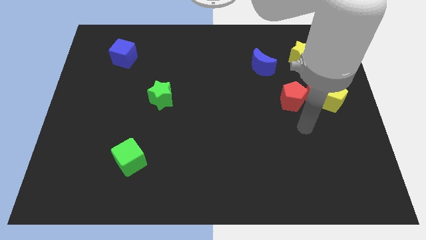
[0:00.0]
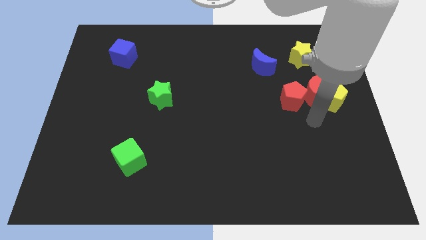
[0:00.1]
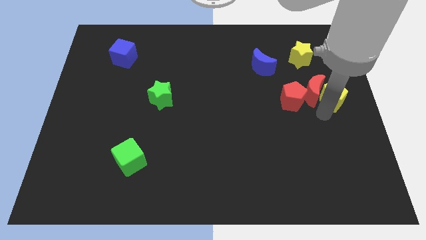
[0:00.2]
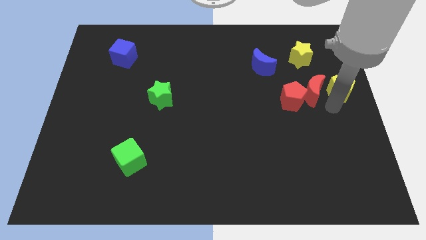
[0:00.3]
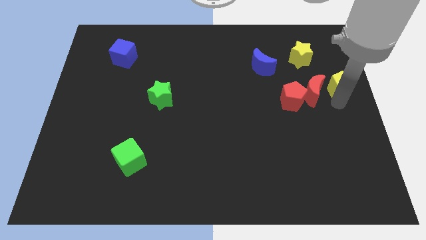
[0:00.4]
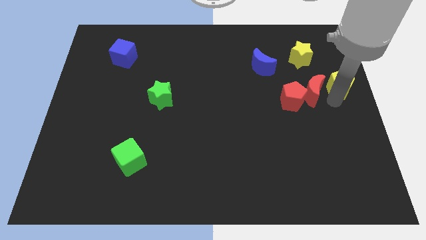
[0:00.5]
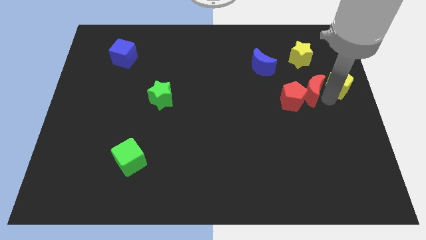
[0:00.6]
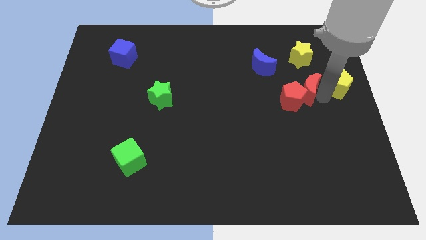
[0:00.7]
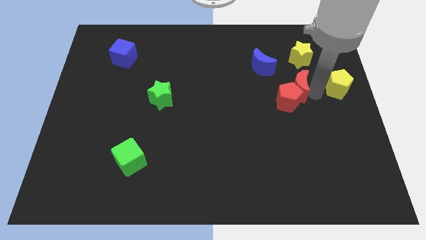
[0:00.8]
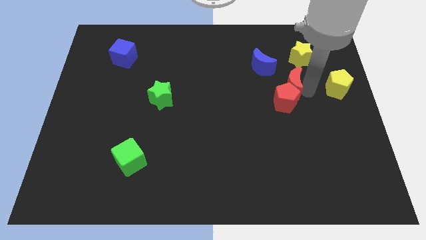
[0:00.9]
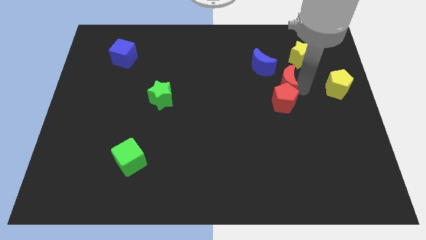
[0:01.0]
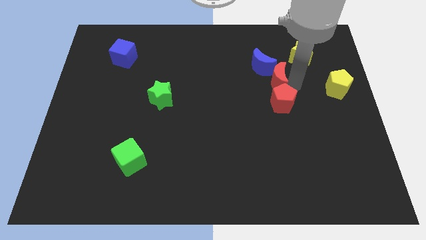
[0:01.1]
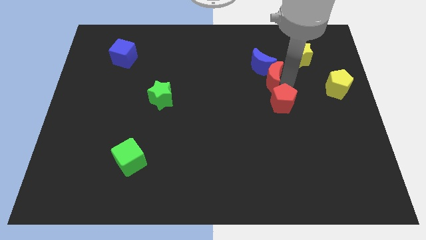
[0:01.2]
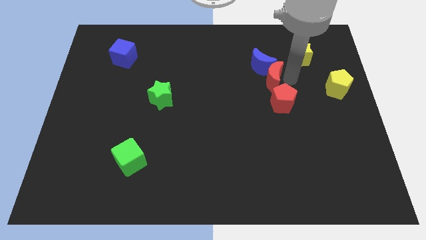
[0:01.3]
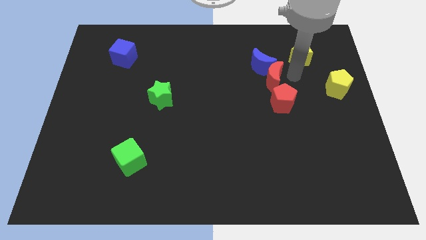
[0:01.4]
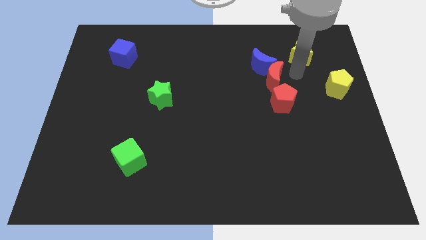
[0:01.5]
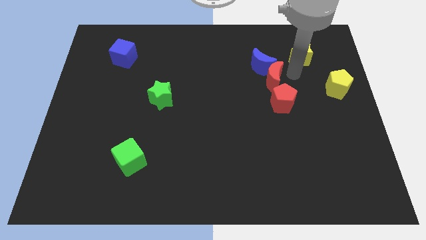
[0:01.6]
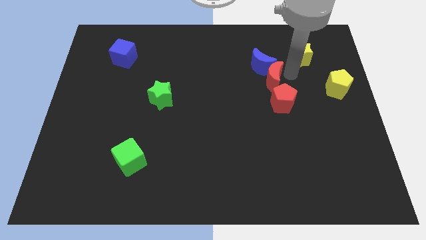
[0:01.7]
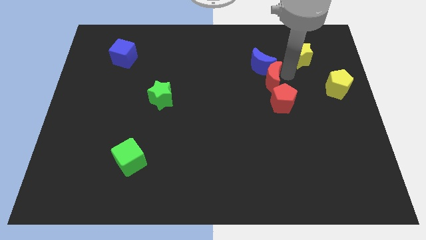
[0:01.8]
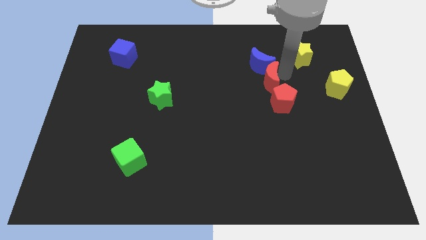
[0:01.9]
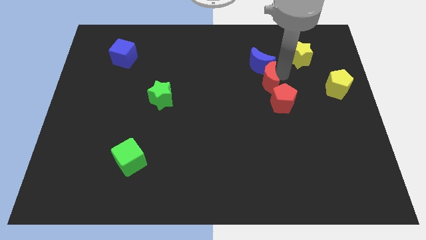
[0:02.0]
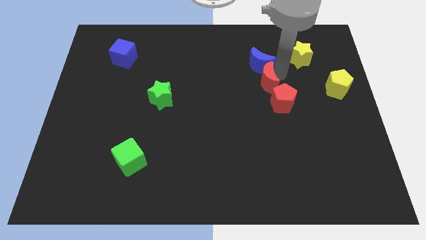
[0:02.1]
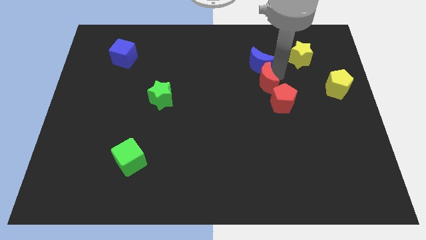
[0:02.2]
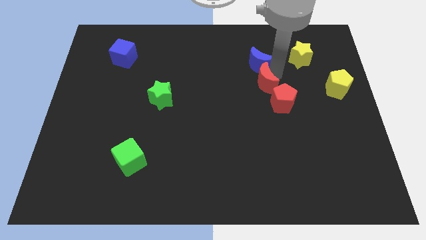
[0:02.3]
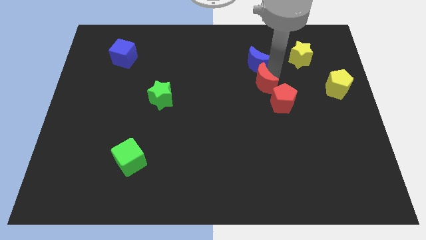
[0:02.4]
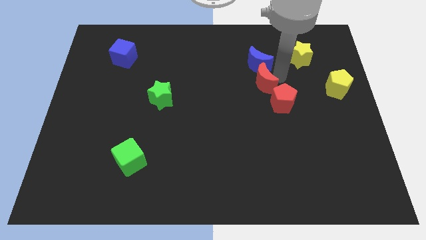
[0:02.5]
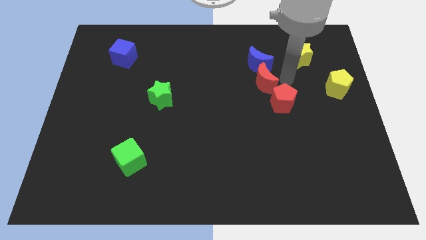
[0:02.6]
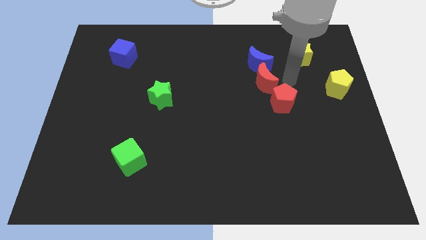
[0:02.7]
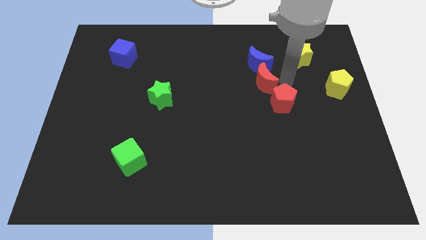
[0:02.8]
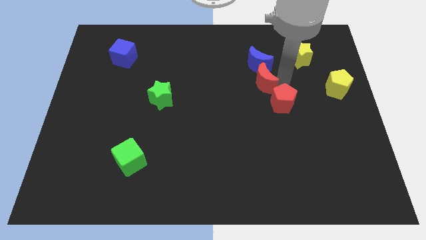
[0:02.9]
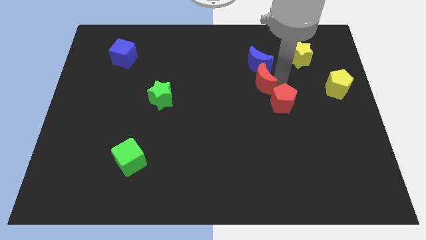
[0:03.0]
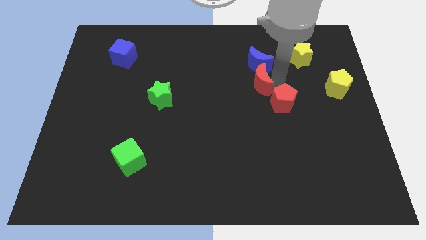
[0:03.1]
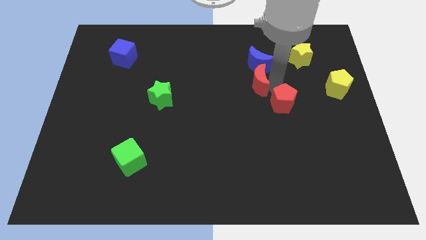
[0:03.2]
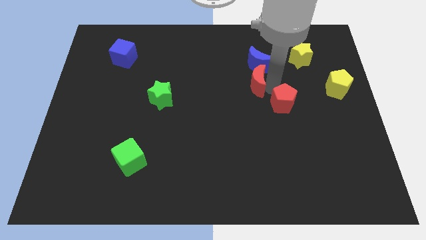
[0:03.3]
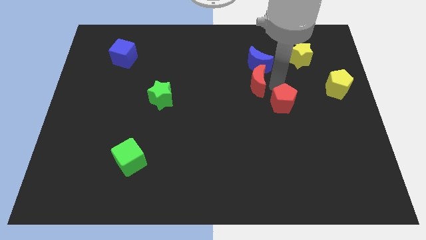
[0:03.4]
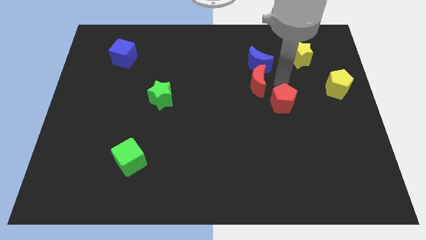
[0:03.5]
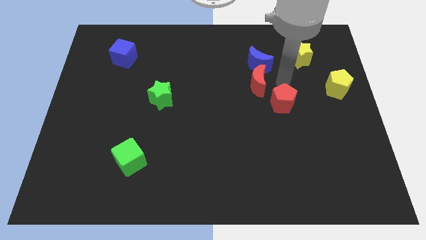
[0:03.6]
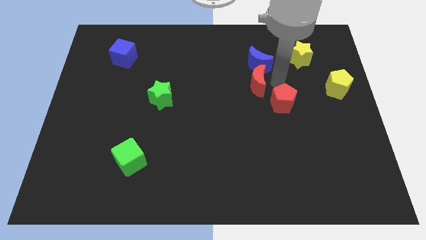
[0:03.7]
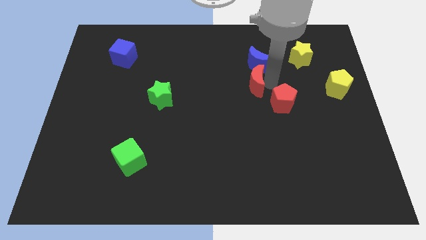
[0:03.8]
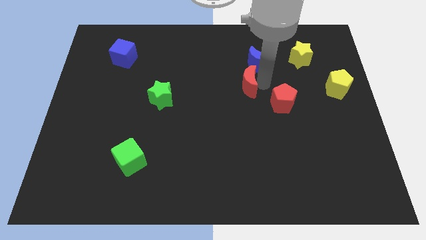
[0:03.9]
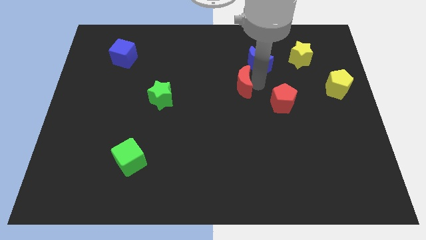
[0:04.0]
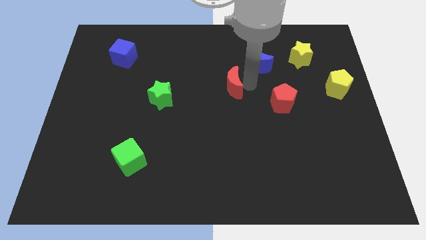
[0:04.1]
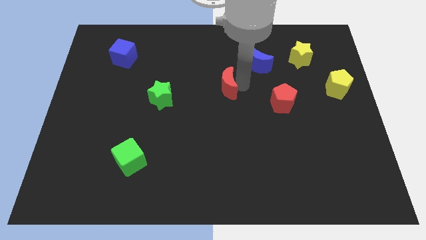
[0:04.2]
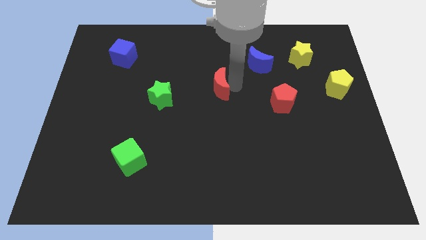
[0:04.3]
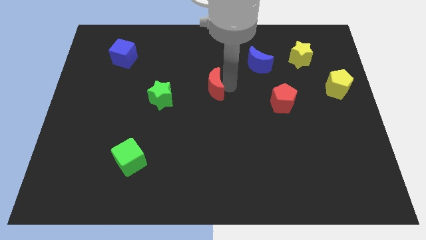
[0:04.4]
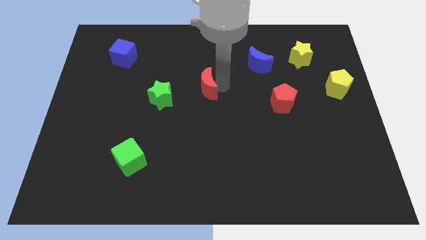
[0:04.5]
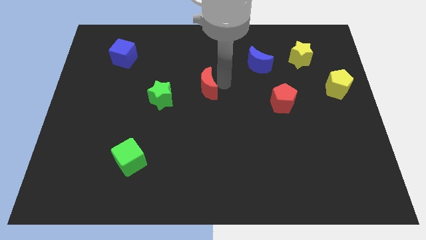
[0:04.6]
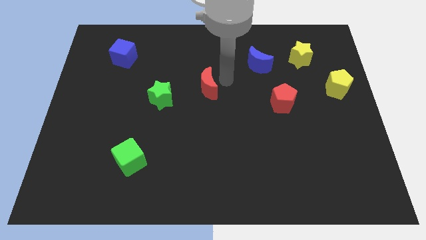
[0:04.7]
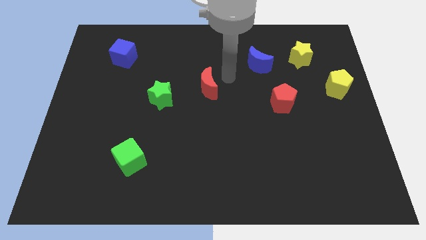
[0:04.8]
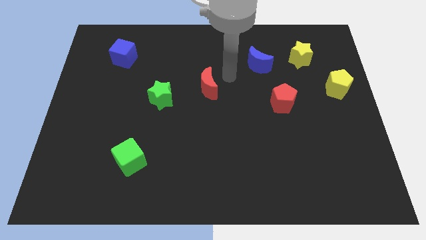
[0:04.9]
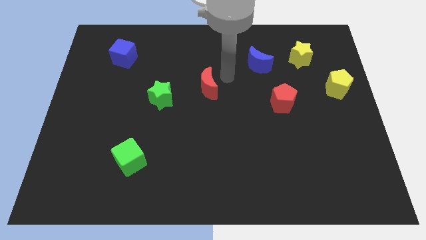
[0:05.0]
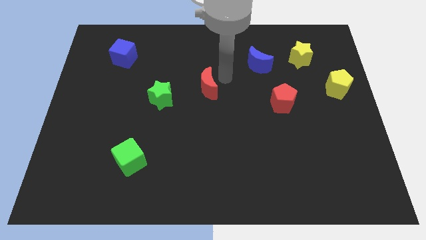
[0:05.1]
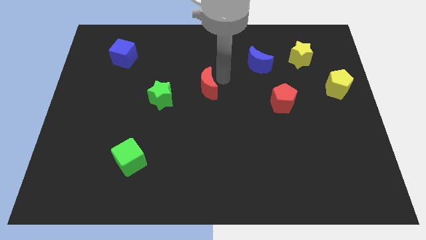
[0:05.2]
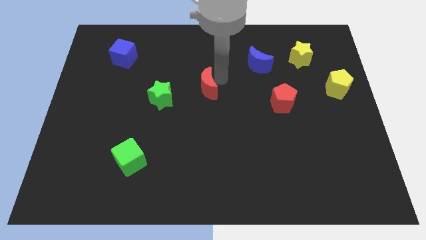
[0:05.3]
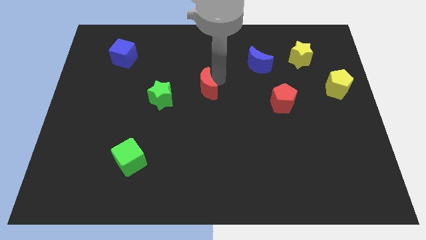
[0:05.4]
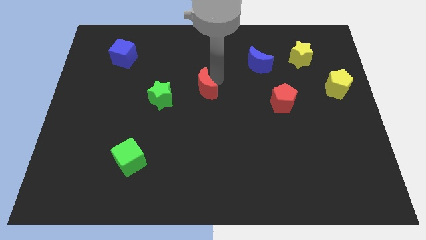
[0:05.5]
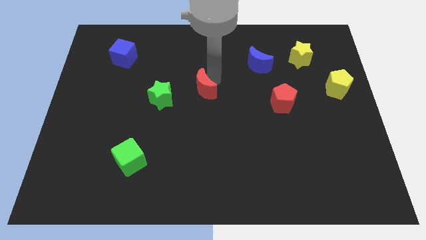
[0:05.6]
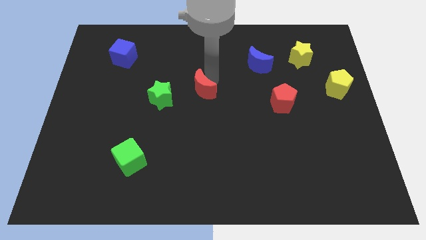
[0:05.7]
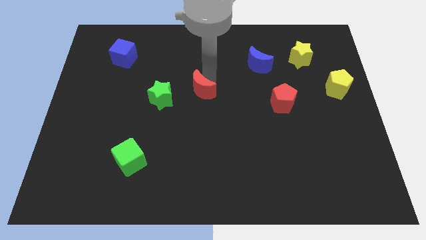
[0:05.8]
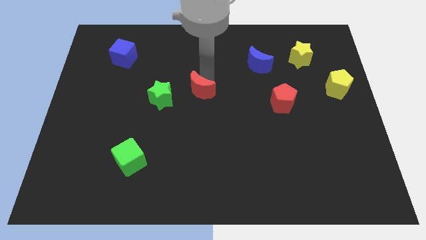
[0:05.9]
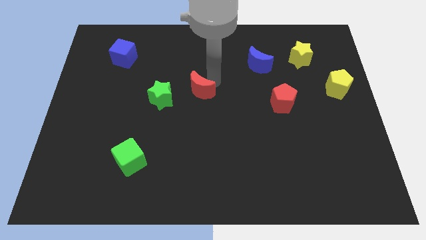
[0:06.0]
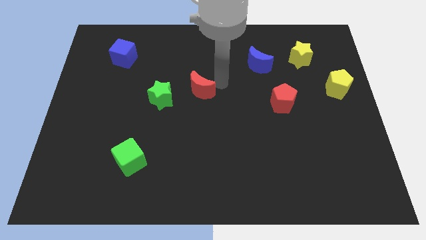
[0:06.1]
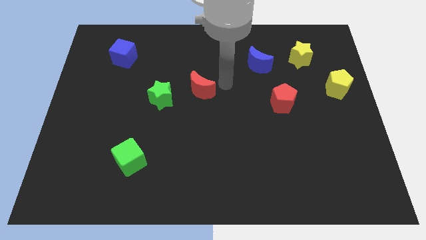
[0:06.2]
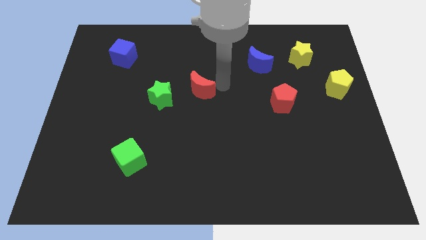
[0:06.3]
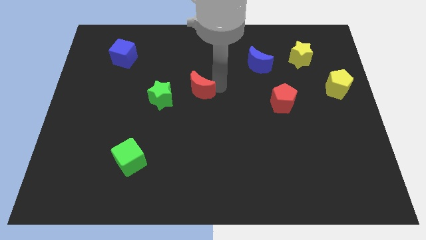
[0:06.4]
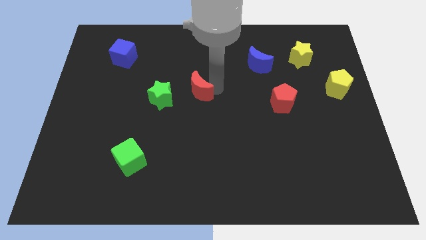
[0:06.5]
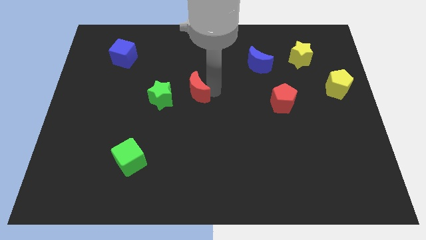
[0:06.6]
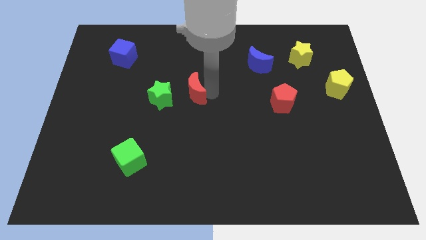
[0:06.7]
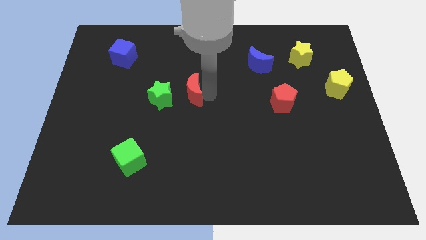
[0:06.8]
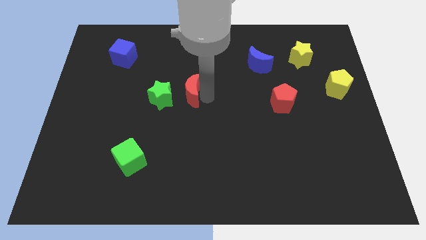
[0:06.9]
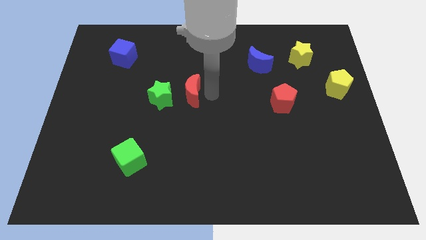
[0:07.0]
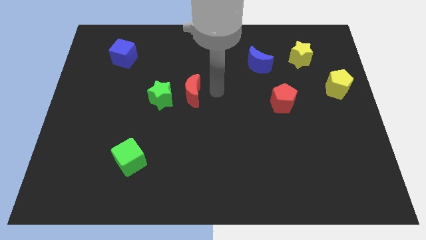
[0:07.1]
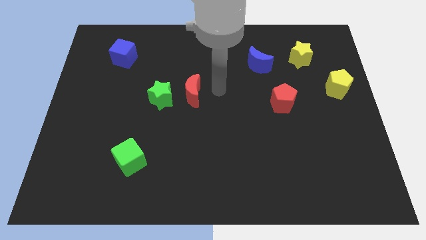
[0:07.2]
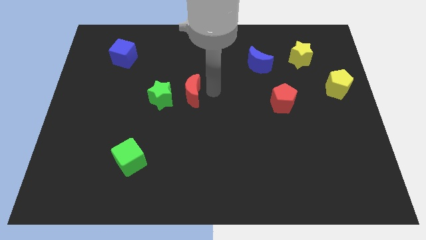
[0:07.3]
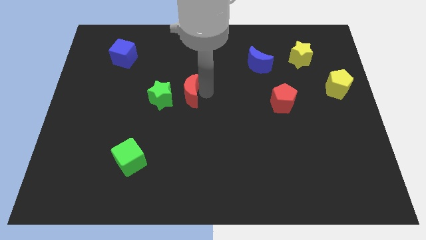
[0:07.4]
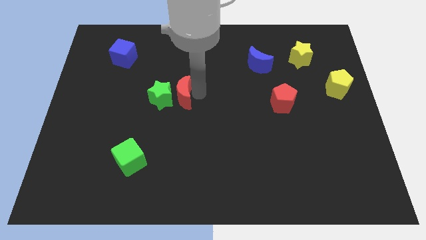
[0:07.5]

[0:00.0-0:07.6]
put the red moon next to the green star
